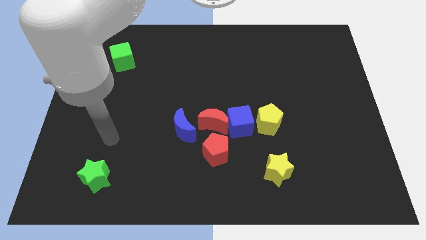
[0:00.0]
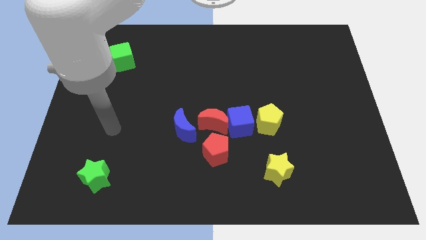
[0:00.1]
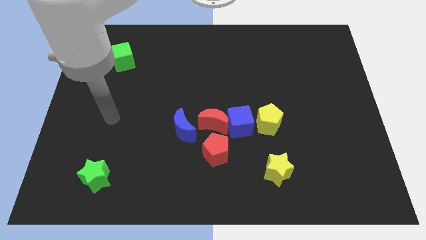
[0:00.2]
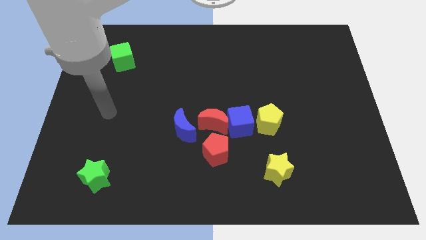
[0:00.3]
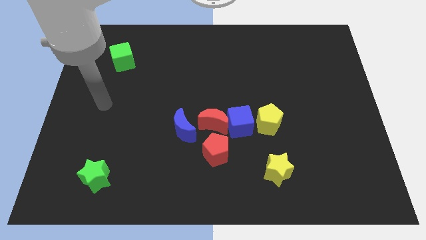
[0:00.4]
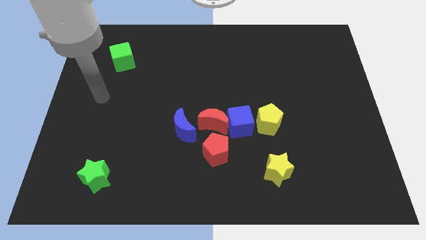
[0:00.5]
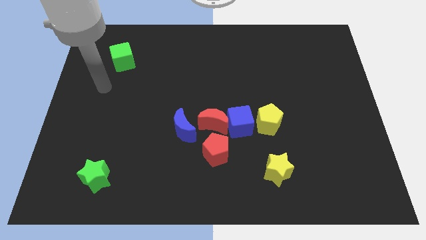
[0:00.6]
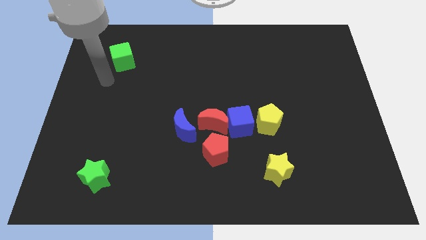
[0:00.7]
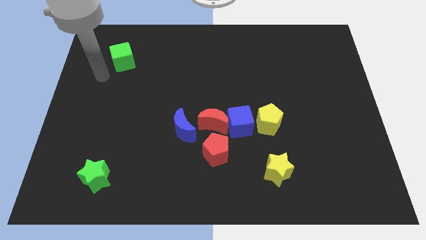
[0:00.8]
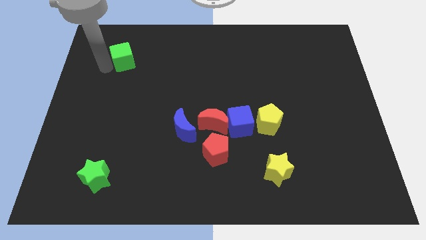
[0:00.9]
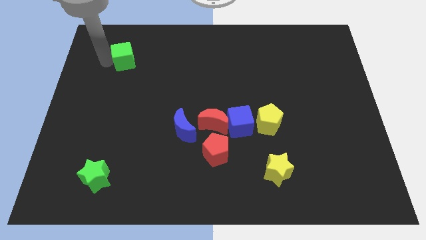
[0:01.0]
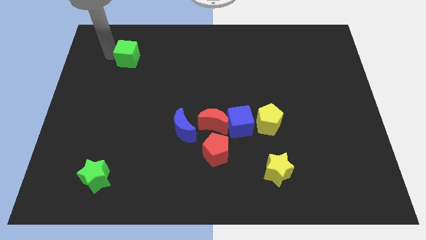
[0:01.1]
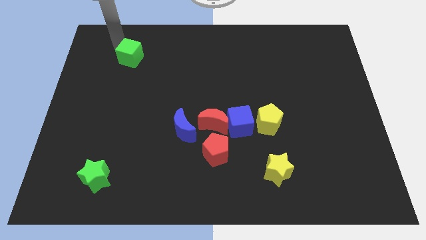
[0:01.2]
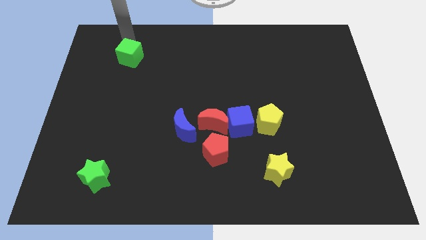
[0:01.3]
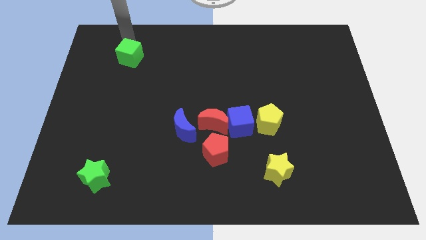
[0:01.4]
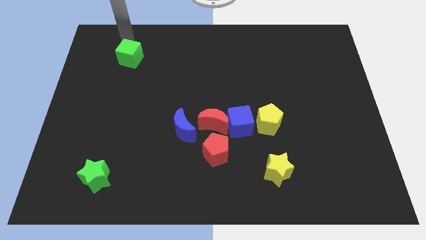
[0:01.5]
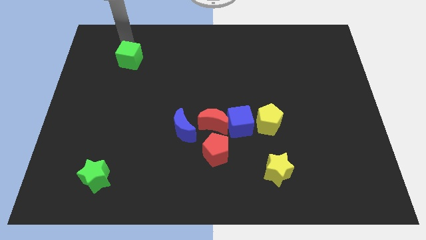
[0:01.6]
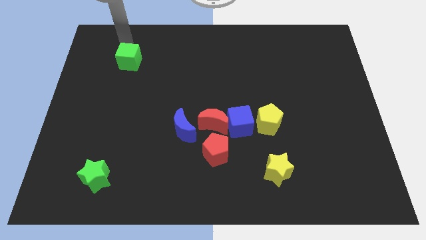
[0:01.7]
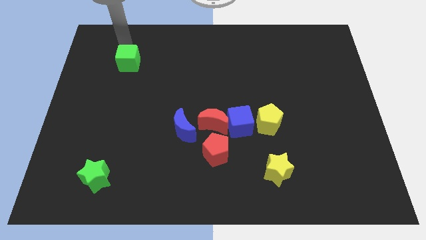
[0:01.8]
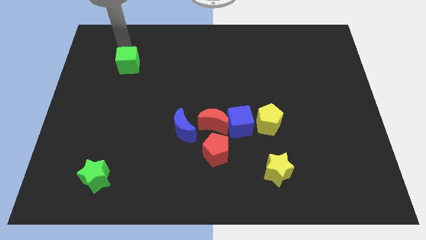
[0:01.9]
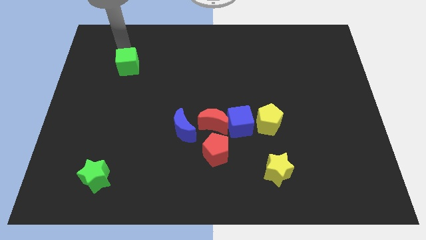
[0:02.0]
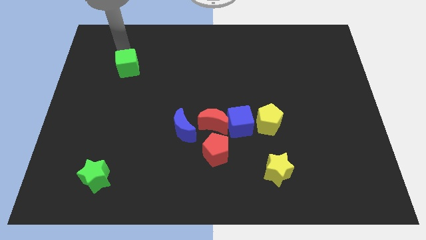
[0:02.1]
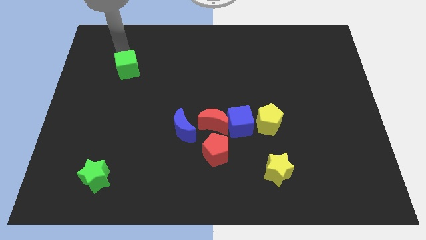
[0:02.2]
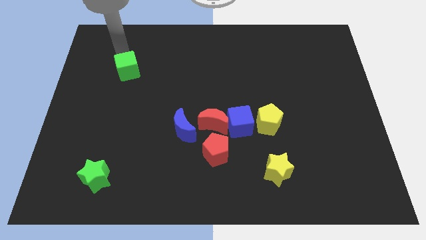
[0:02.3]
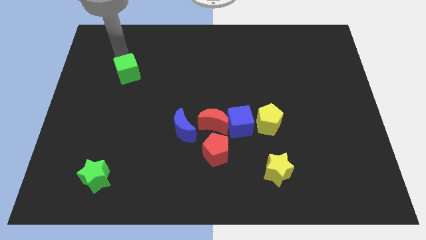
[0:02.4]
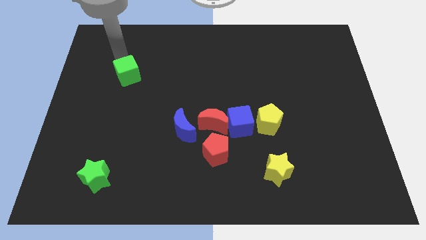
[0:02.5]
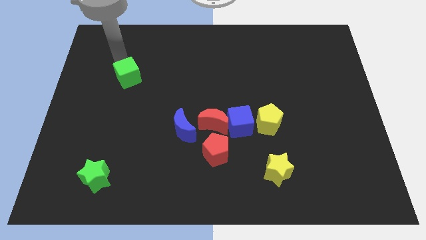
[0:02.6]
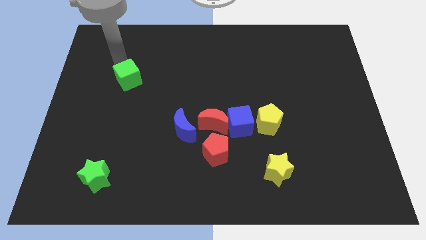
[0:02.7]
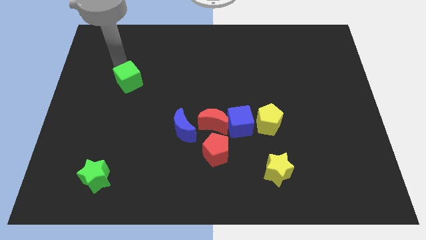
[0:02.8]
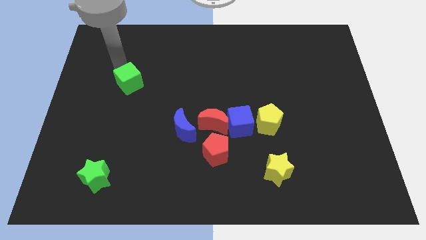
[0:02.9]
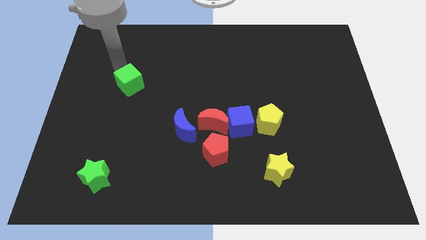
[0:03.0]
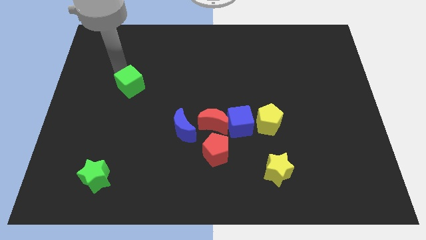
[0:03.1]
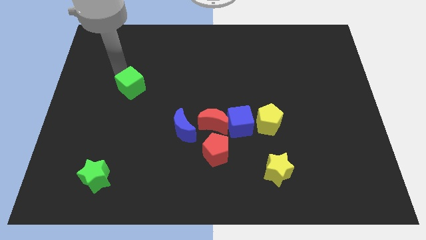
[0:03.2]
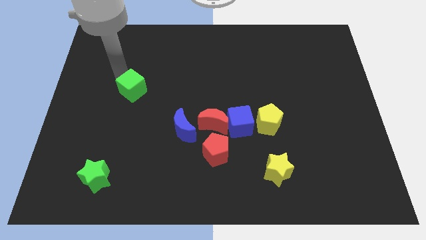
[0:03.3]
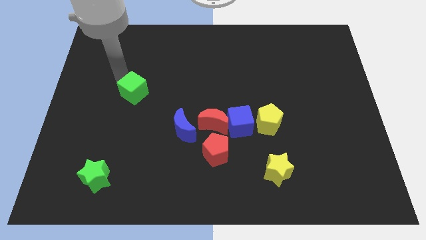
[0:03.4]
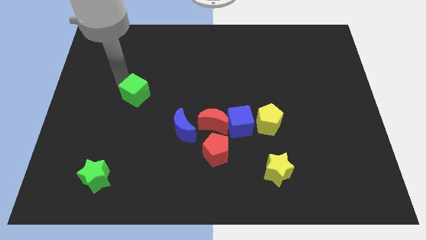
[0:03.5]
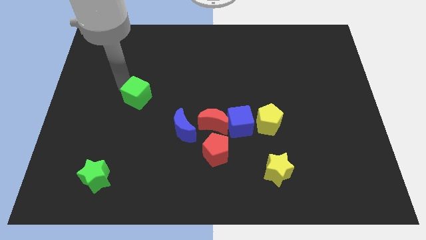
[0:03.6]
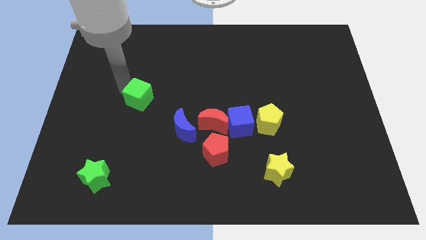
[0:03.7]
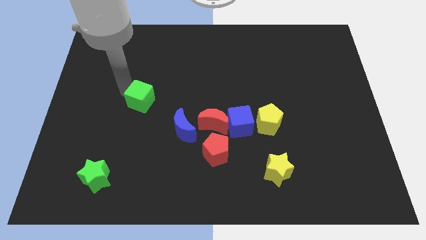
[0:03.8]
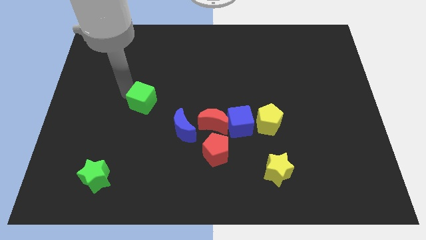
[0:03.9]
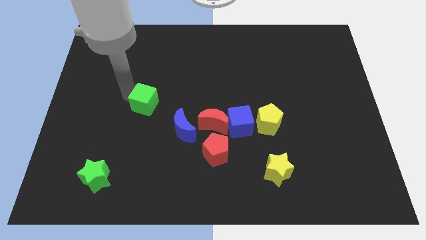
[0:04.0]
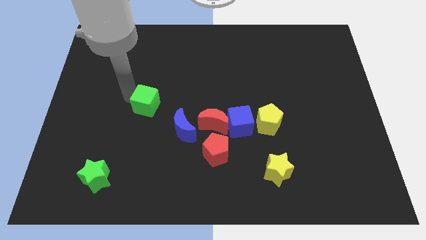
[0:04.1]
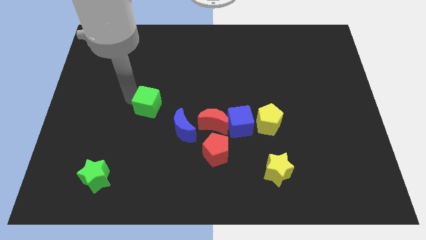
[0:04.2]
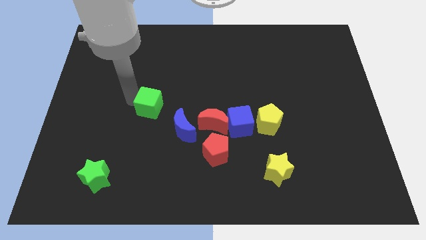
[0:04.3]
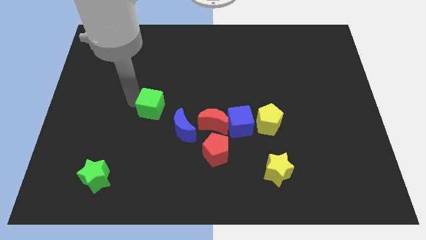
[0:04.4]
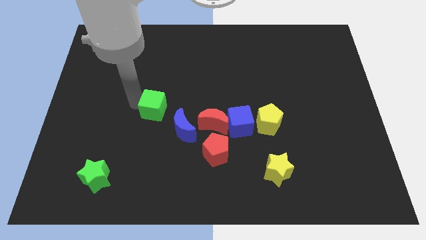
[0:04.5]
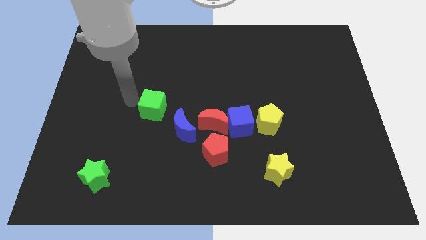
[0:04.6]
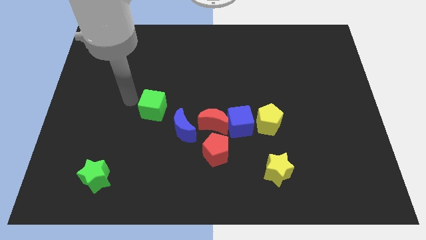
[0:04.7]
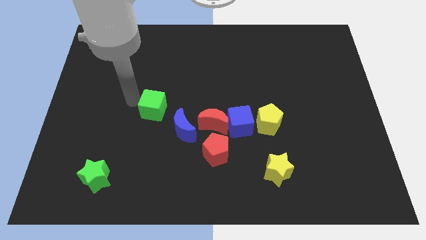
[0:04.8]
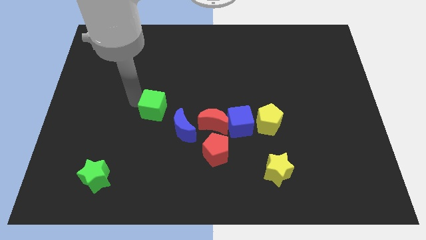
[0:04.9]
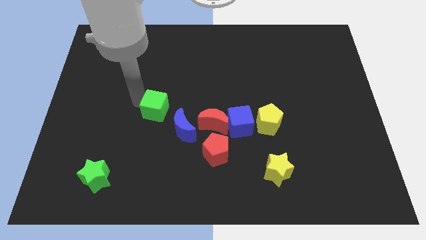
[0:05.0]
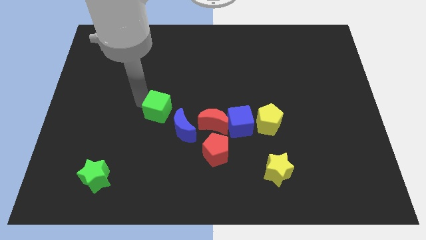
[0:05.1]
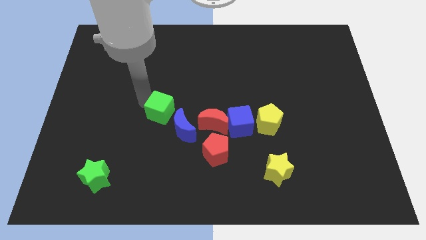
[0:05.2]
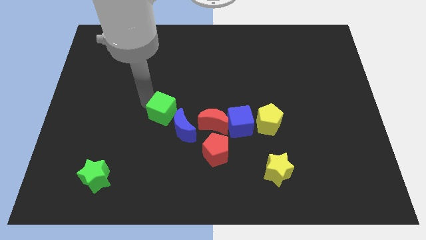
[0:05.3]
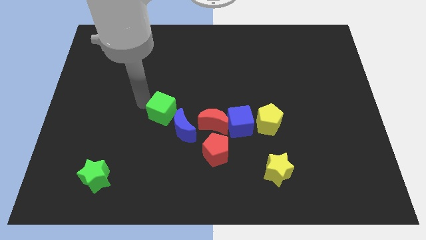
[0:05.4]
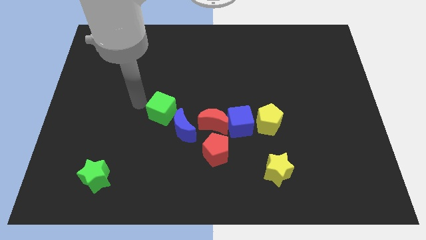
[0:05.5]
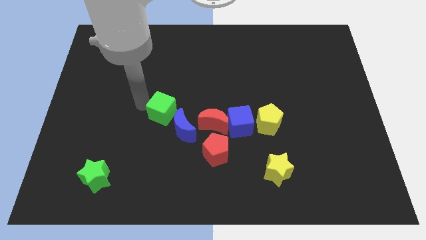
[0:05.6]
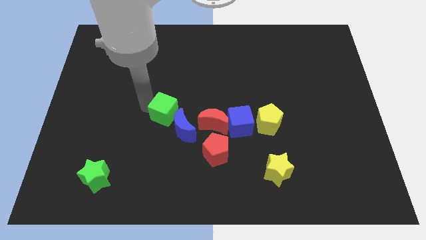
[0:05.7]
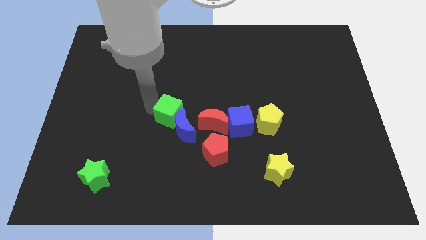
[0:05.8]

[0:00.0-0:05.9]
push the green cube close to the blue moon

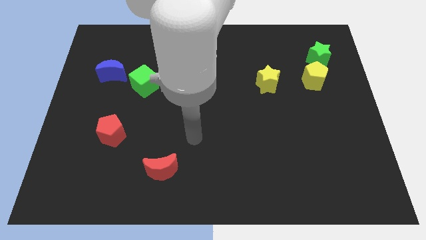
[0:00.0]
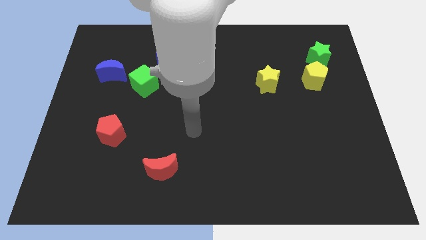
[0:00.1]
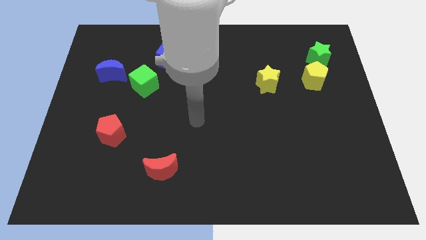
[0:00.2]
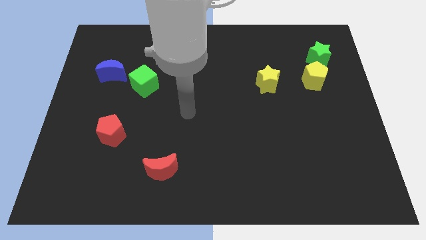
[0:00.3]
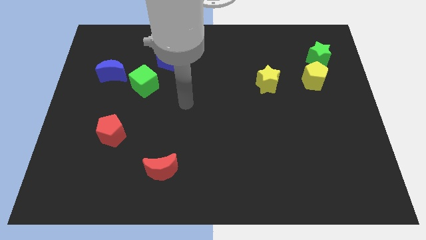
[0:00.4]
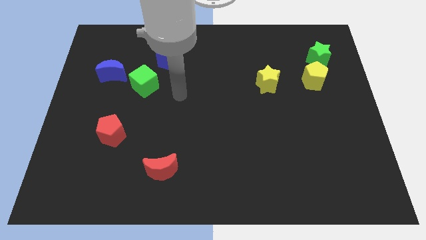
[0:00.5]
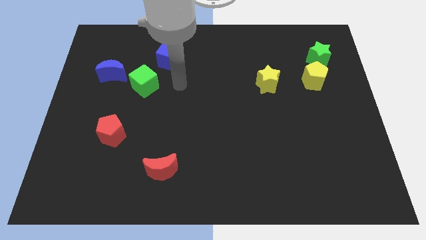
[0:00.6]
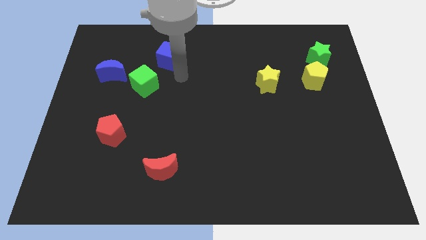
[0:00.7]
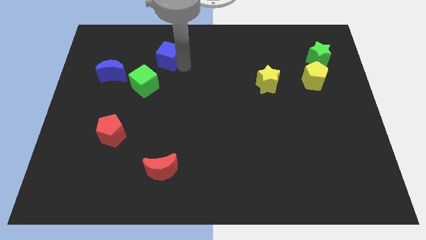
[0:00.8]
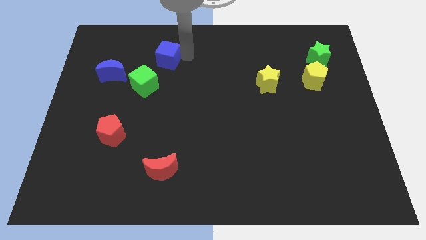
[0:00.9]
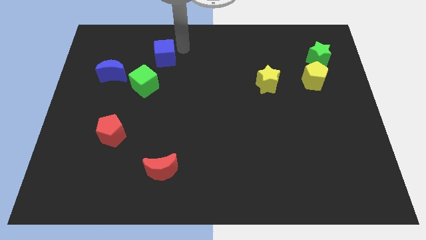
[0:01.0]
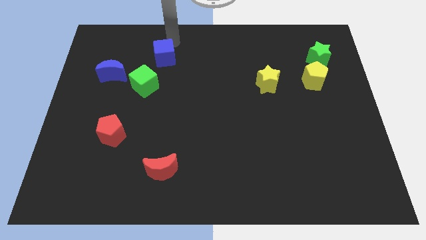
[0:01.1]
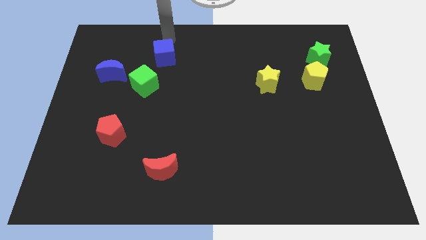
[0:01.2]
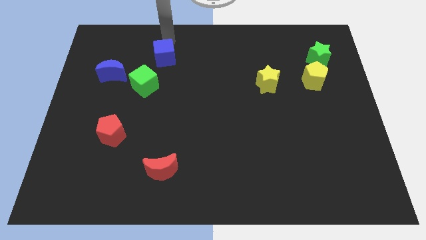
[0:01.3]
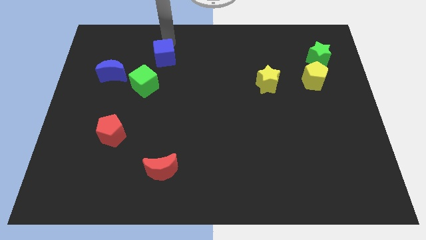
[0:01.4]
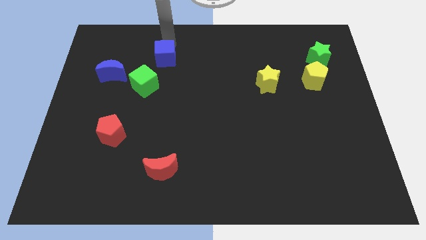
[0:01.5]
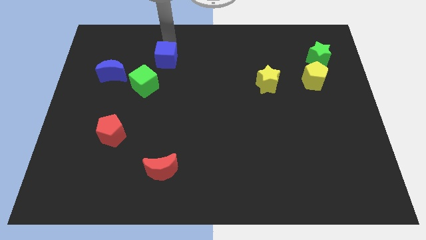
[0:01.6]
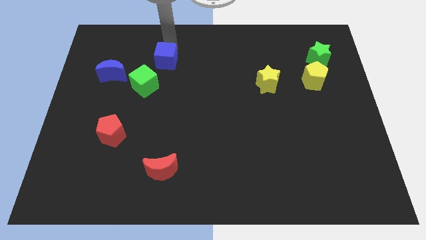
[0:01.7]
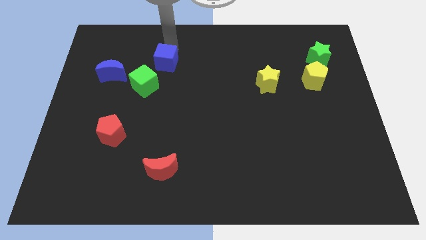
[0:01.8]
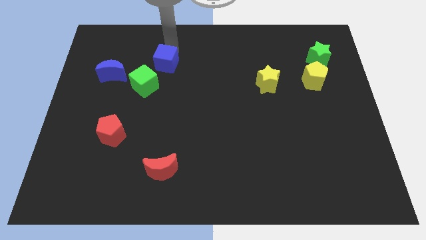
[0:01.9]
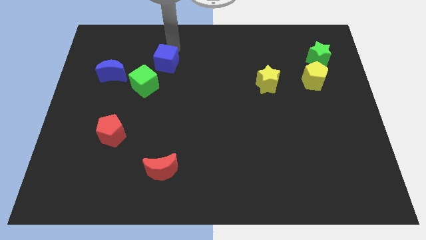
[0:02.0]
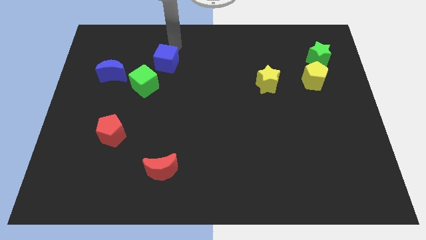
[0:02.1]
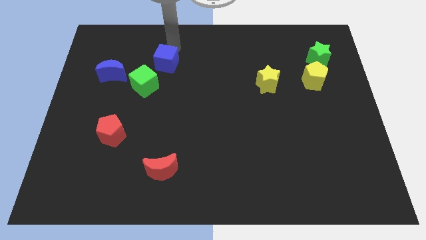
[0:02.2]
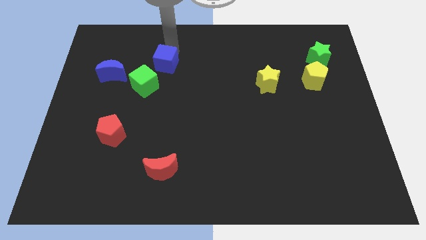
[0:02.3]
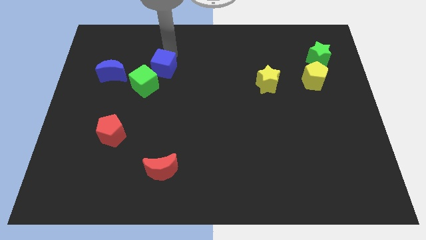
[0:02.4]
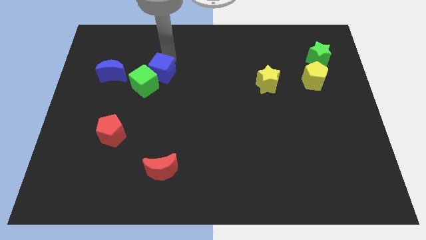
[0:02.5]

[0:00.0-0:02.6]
push the blue cube close to the green cube
